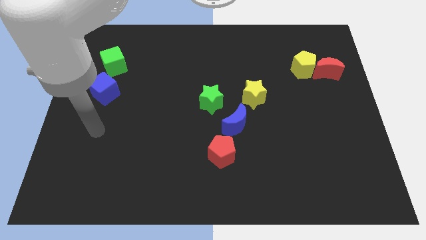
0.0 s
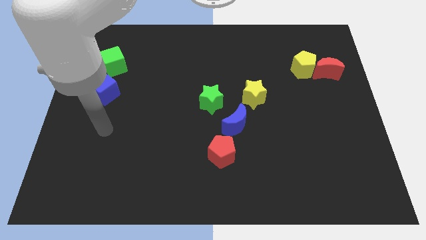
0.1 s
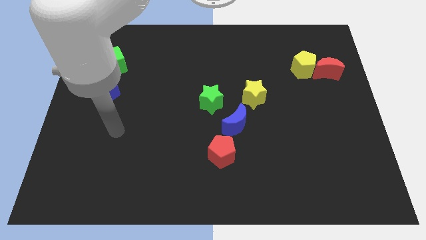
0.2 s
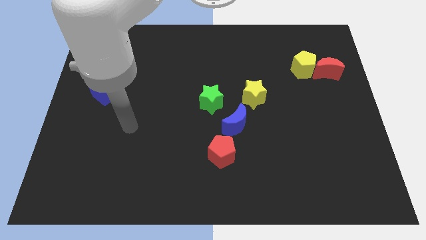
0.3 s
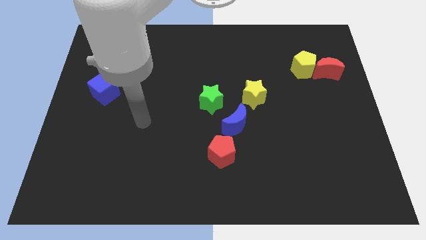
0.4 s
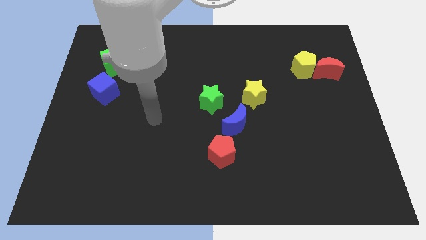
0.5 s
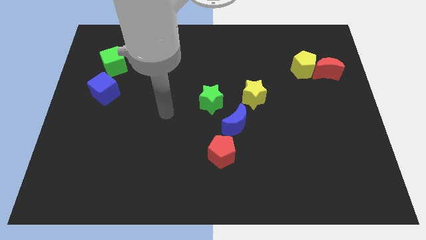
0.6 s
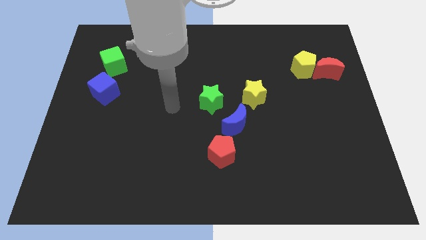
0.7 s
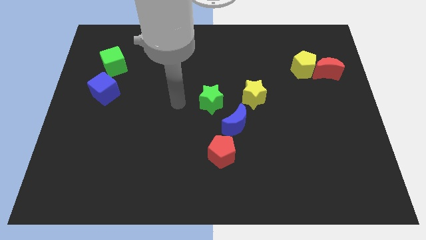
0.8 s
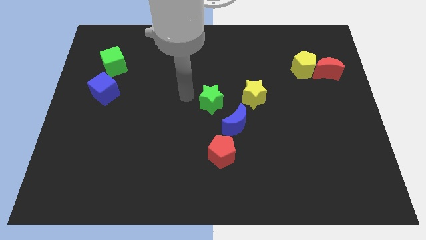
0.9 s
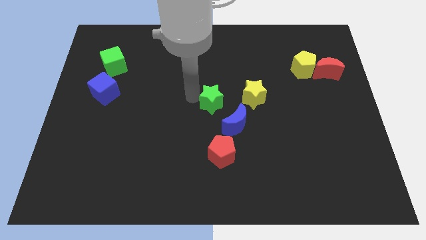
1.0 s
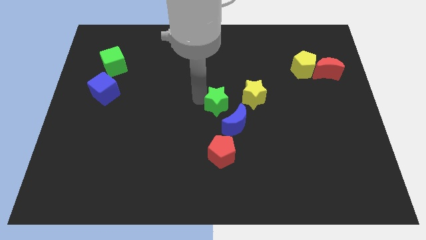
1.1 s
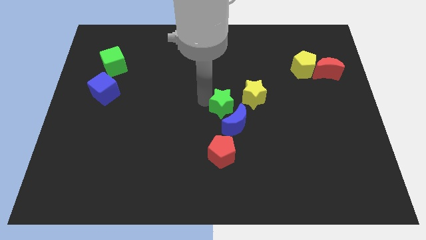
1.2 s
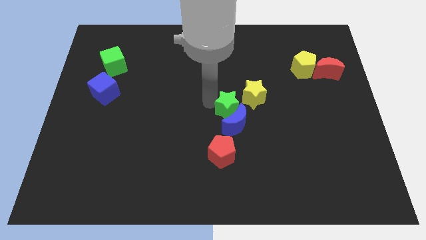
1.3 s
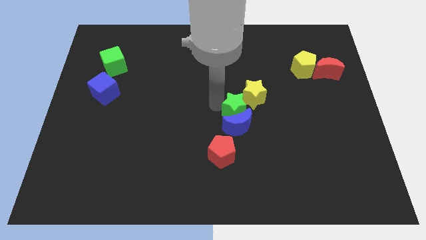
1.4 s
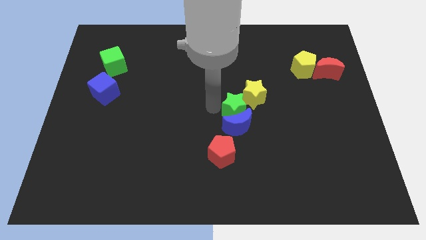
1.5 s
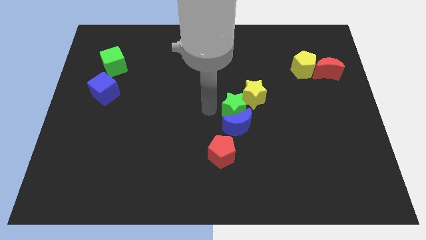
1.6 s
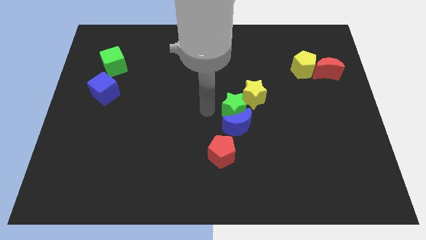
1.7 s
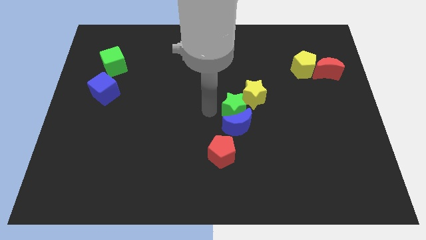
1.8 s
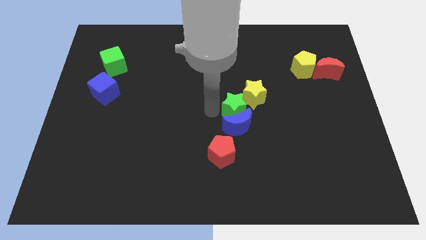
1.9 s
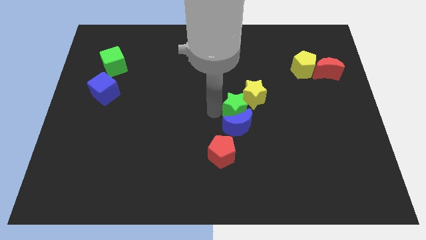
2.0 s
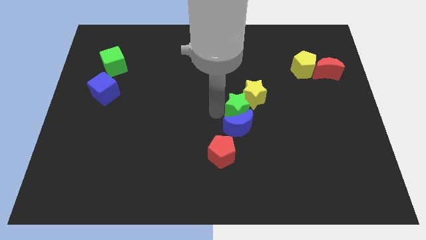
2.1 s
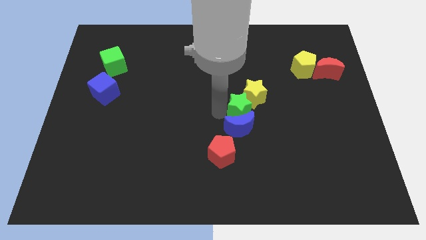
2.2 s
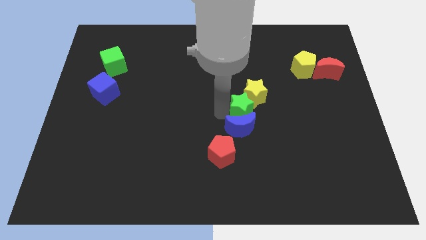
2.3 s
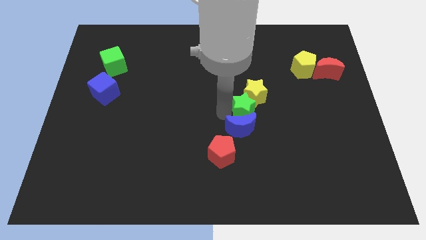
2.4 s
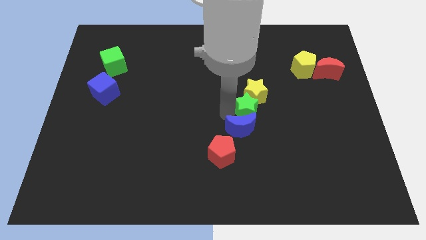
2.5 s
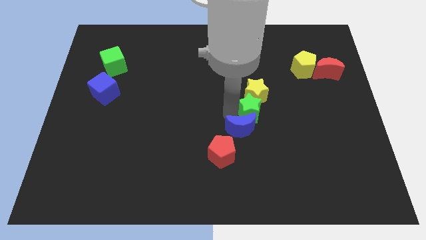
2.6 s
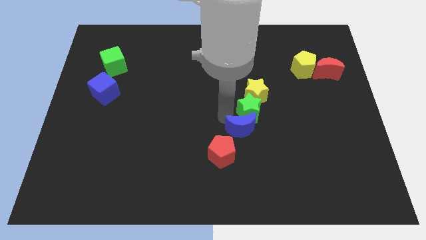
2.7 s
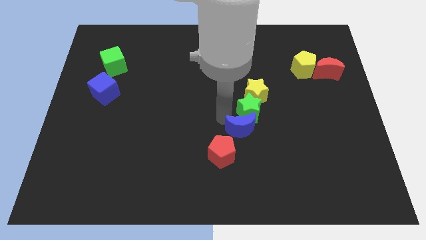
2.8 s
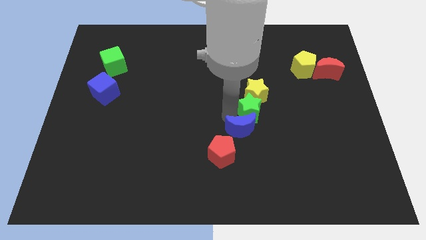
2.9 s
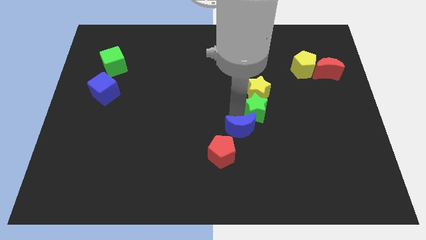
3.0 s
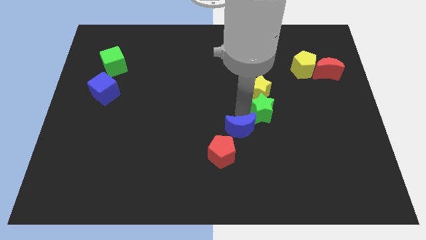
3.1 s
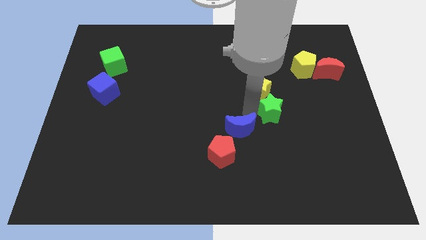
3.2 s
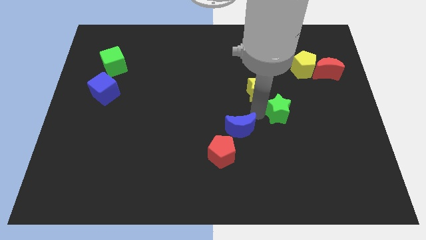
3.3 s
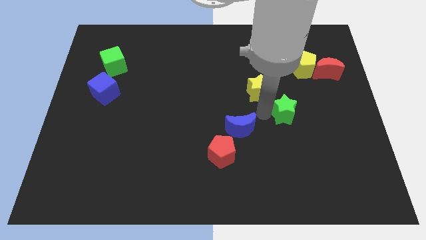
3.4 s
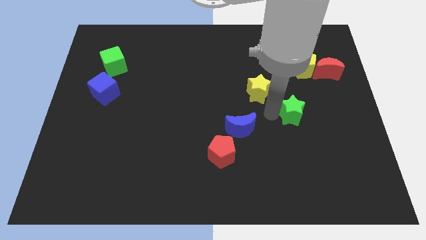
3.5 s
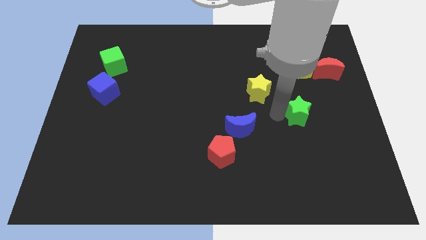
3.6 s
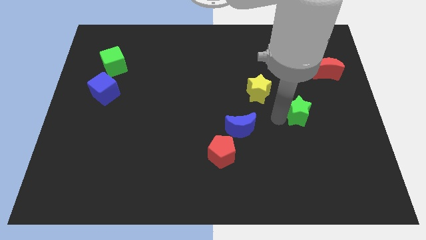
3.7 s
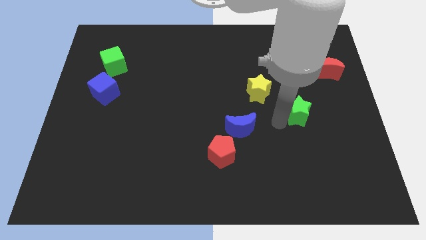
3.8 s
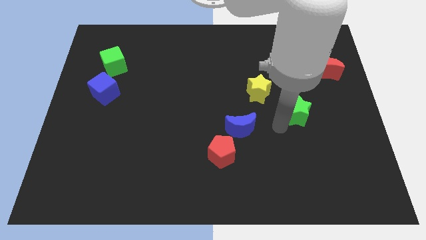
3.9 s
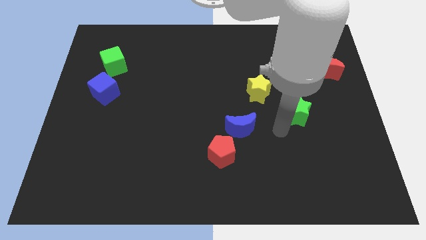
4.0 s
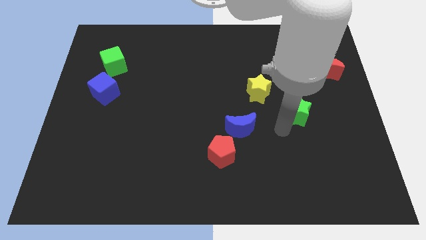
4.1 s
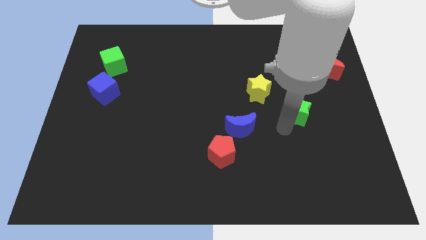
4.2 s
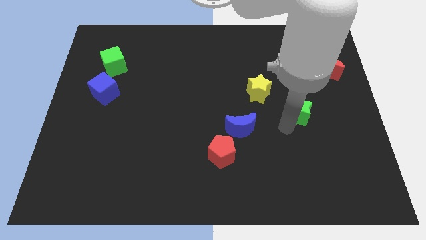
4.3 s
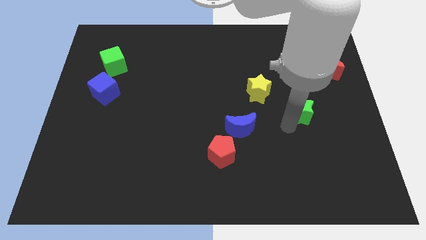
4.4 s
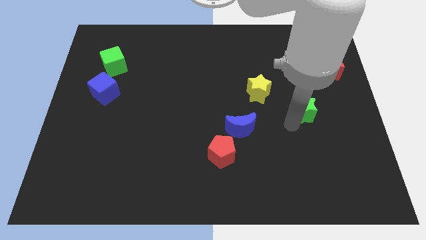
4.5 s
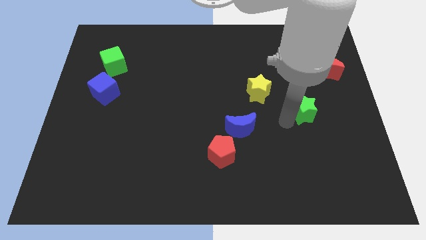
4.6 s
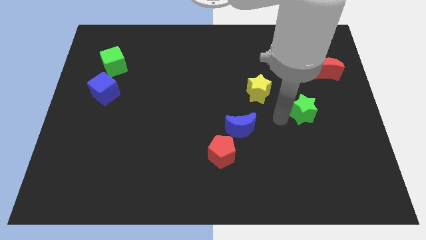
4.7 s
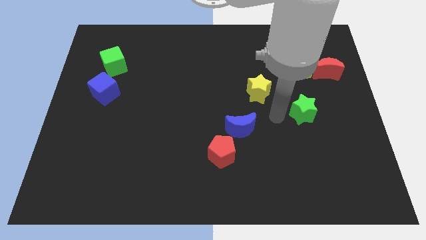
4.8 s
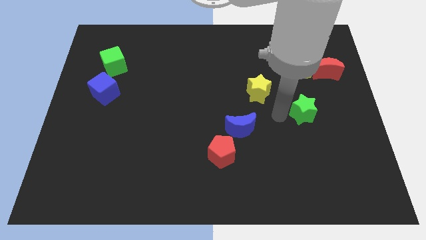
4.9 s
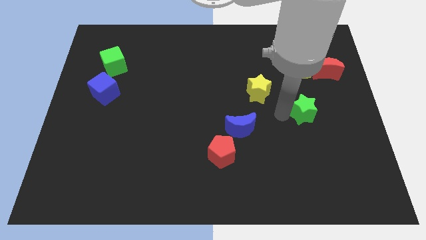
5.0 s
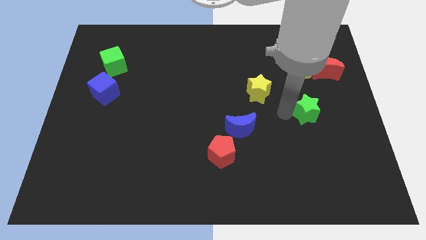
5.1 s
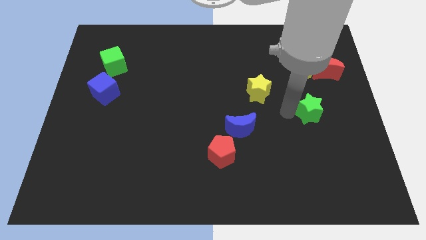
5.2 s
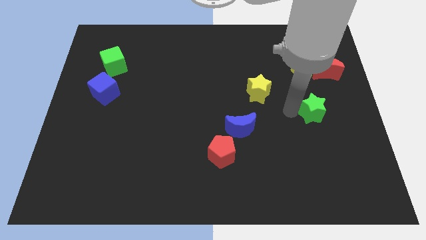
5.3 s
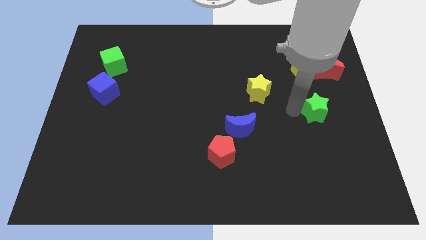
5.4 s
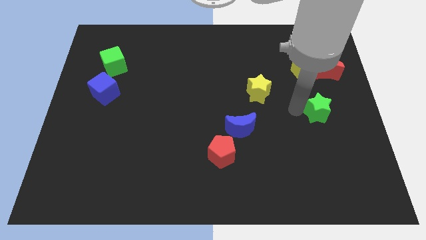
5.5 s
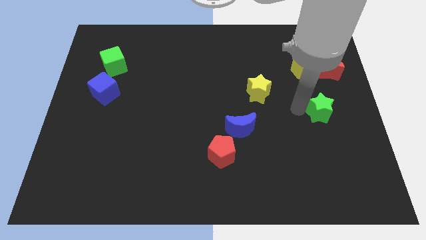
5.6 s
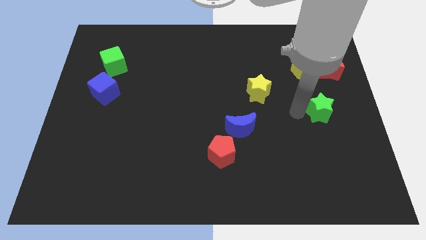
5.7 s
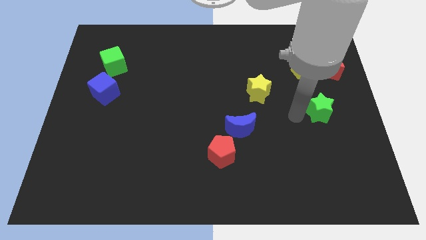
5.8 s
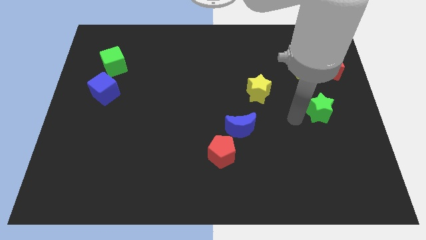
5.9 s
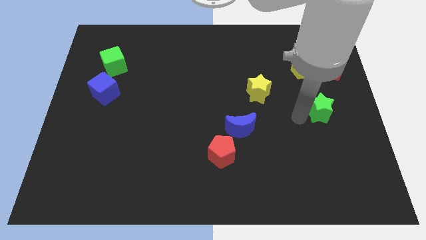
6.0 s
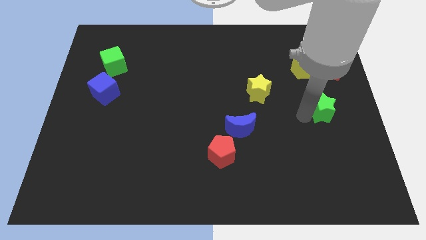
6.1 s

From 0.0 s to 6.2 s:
move the green star to the right side
